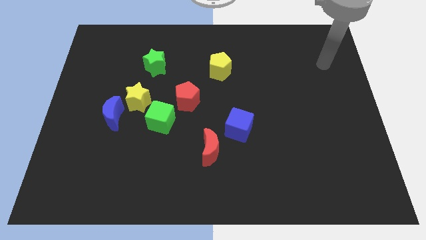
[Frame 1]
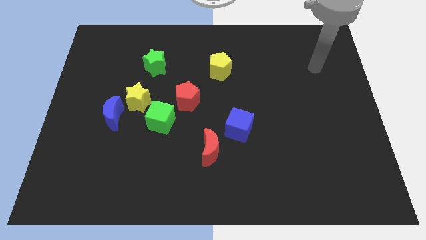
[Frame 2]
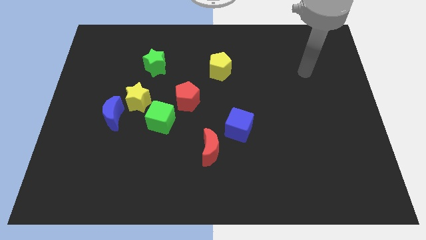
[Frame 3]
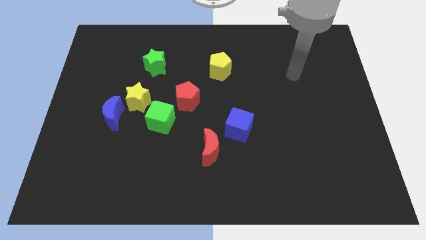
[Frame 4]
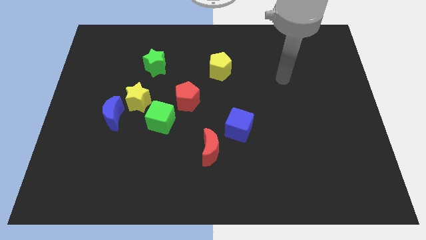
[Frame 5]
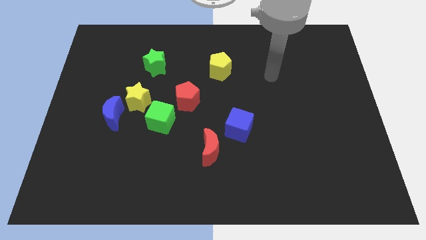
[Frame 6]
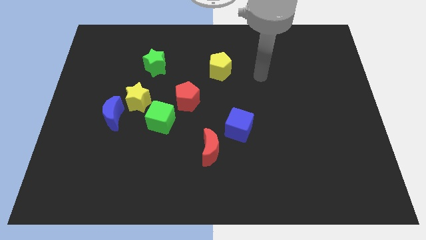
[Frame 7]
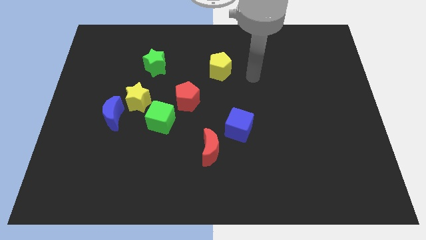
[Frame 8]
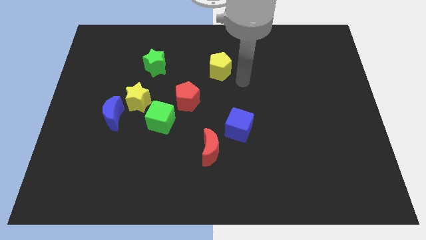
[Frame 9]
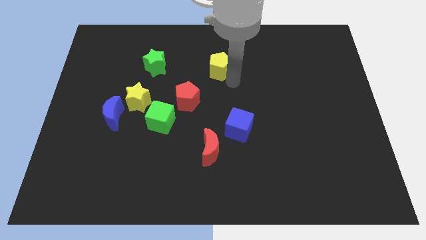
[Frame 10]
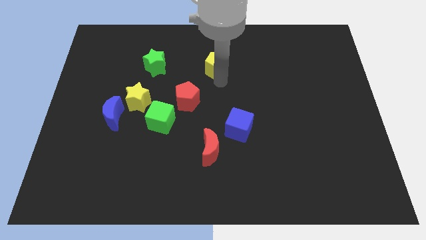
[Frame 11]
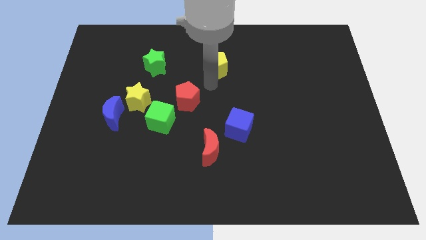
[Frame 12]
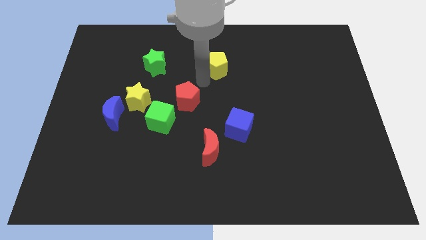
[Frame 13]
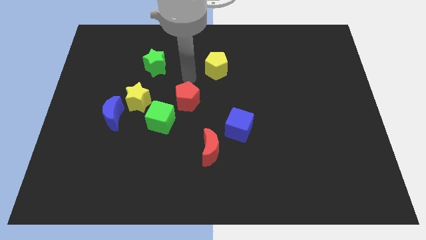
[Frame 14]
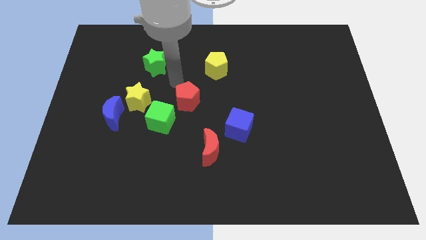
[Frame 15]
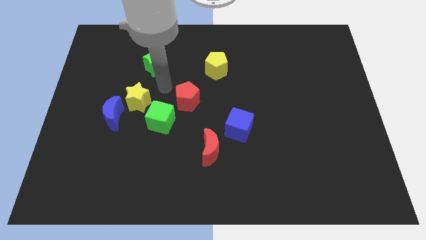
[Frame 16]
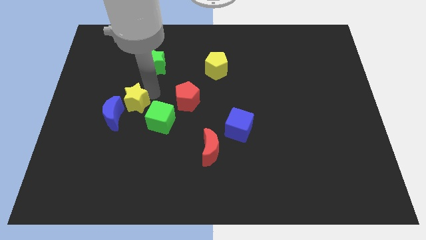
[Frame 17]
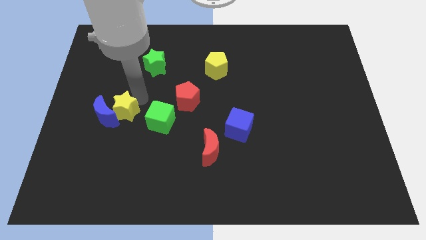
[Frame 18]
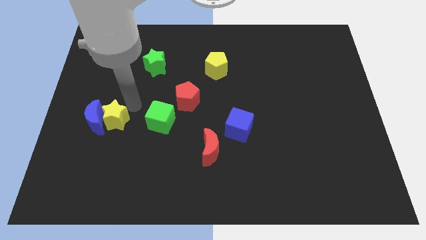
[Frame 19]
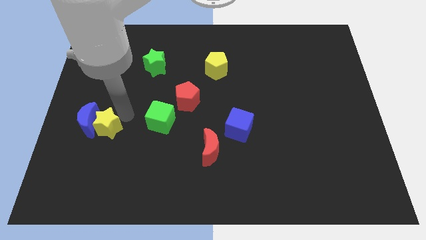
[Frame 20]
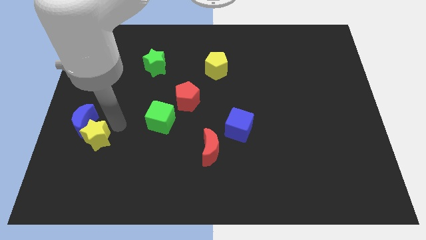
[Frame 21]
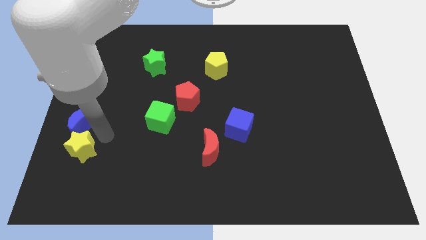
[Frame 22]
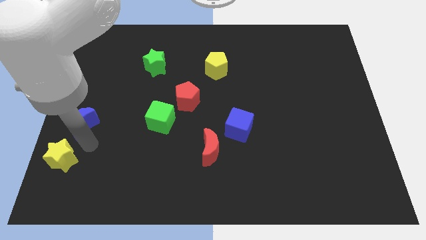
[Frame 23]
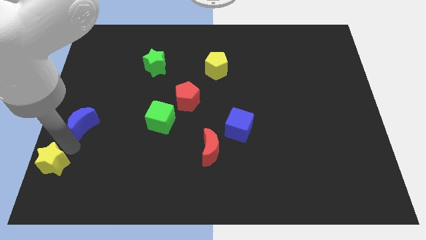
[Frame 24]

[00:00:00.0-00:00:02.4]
pull the blue moon apart from the yellow star

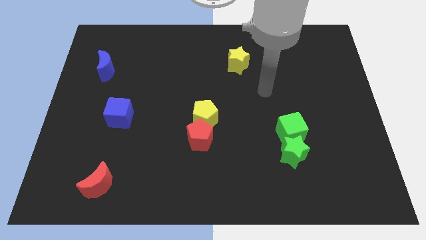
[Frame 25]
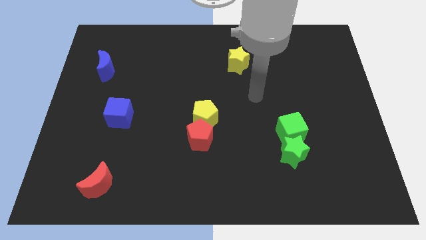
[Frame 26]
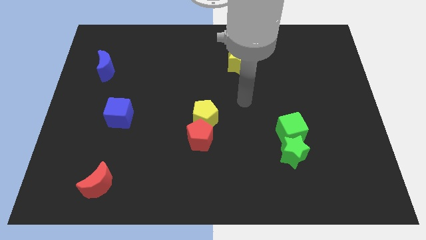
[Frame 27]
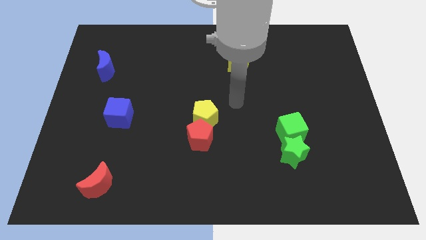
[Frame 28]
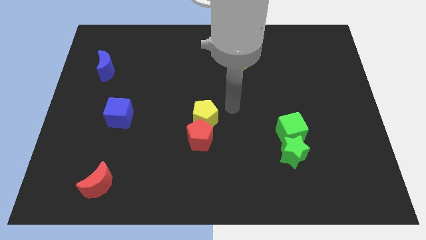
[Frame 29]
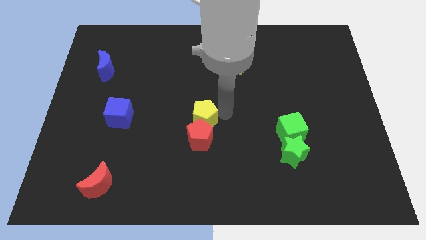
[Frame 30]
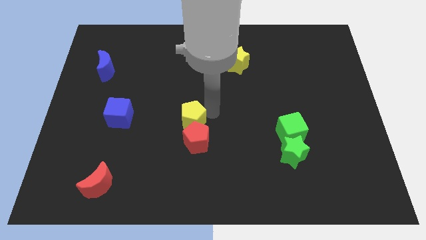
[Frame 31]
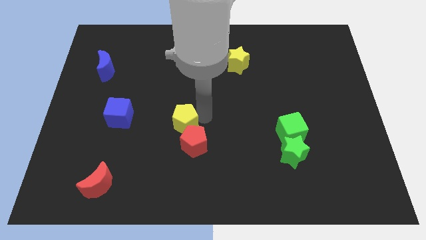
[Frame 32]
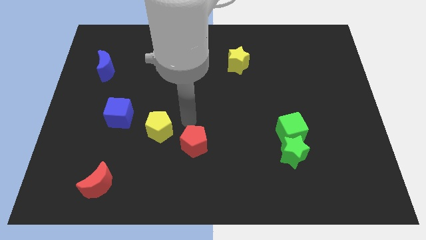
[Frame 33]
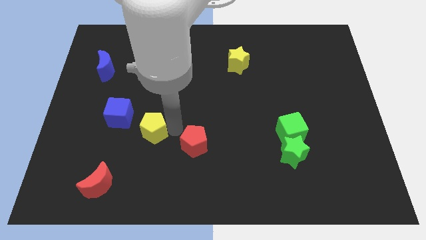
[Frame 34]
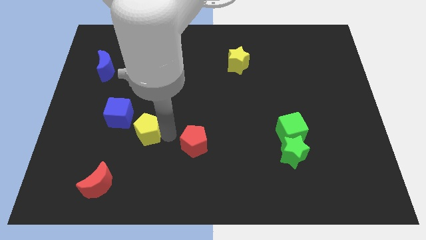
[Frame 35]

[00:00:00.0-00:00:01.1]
move the red pentagon away from the yellow pentagon

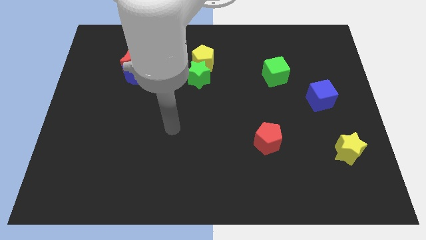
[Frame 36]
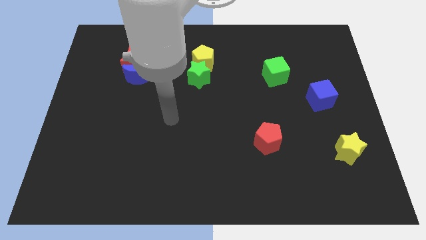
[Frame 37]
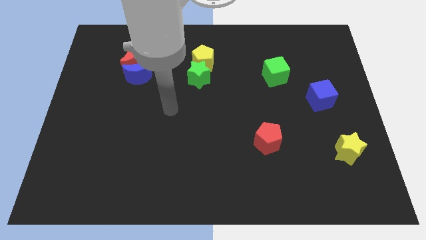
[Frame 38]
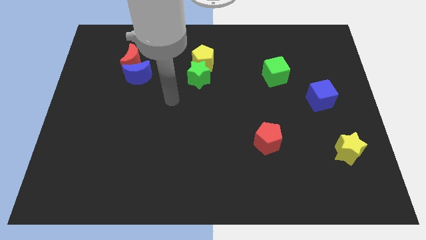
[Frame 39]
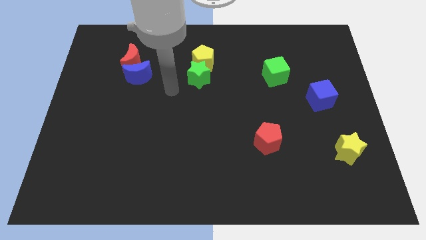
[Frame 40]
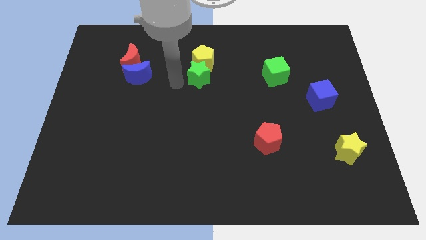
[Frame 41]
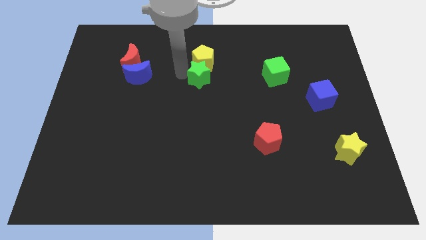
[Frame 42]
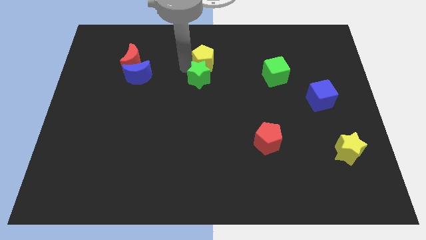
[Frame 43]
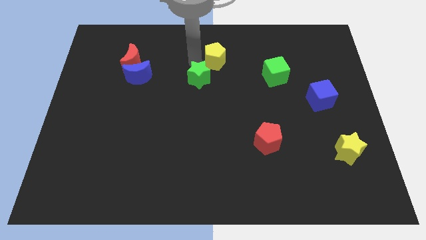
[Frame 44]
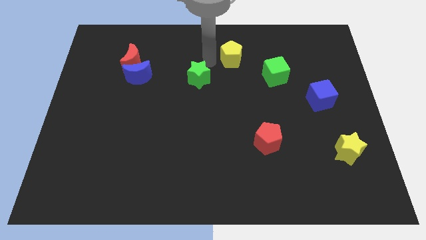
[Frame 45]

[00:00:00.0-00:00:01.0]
pull the green star apart from the yellow pentagon

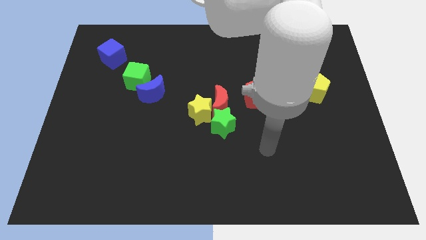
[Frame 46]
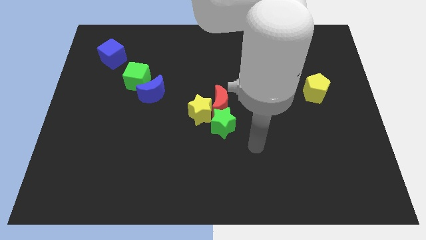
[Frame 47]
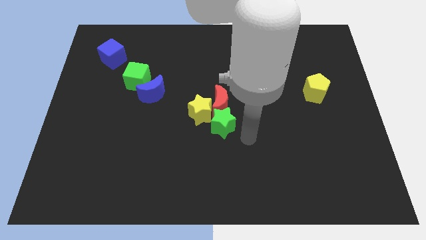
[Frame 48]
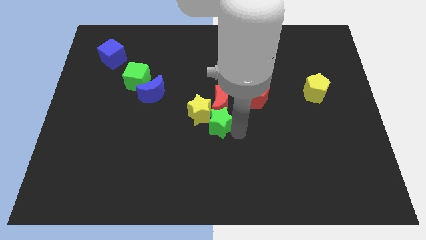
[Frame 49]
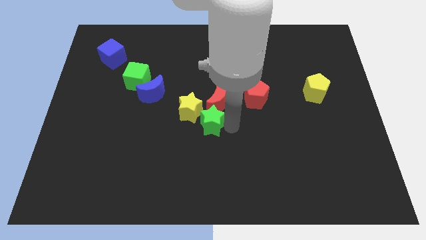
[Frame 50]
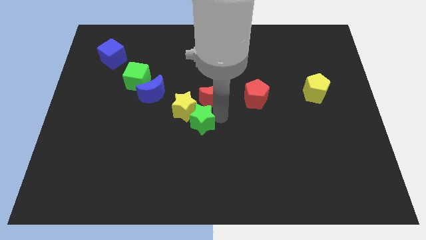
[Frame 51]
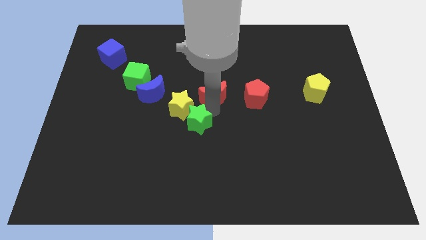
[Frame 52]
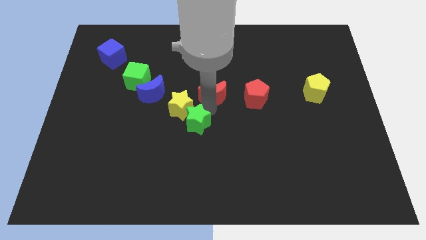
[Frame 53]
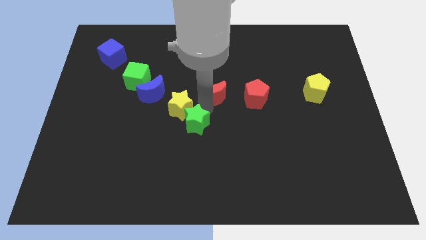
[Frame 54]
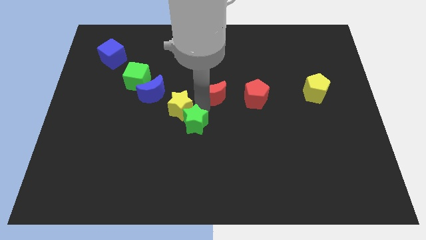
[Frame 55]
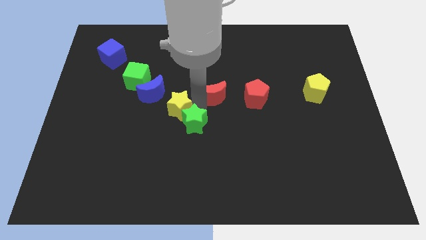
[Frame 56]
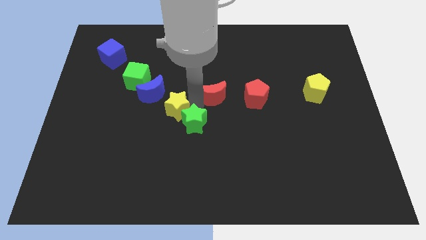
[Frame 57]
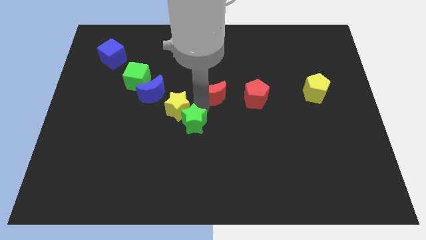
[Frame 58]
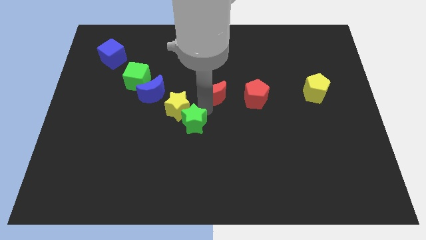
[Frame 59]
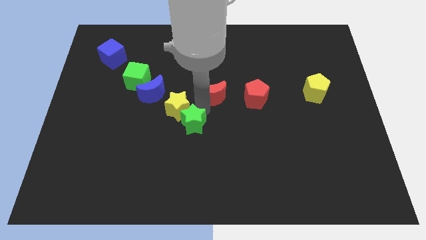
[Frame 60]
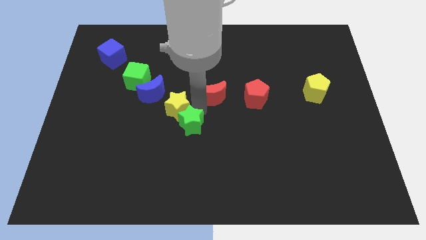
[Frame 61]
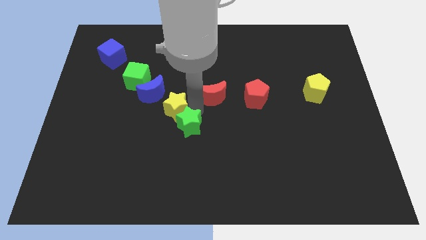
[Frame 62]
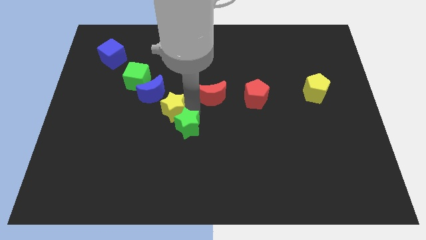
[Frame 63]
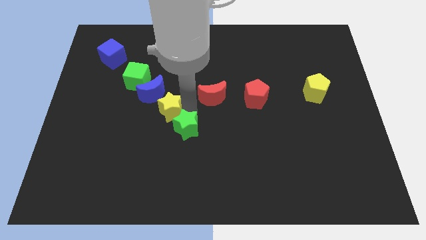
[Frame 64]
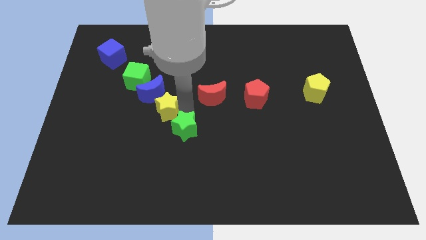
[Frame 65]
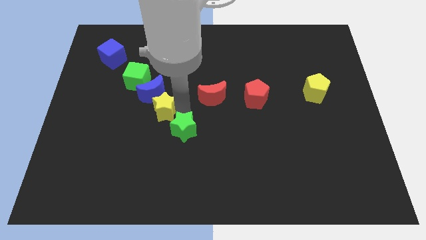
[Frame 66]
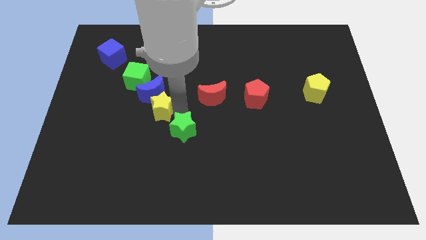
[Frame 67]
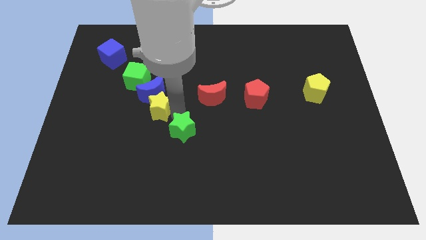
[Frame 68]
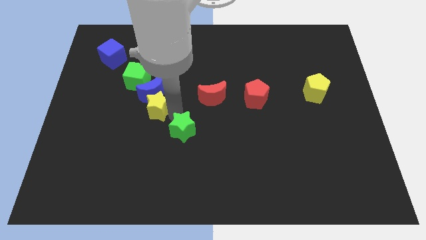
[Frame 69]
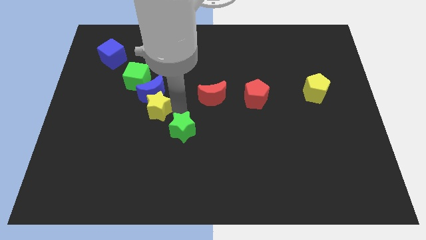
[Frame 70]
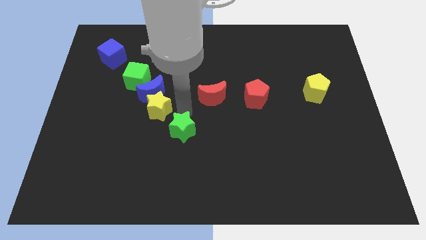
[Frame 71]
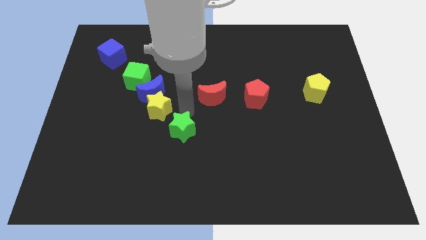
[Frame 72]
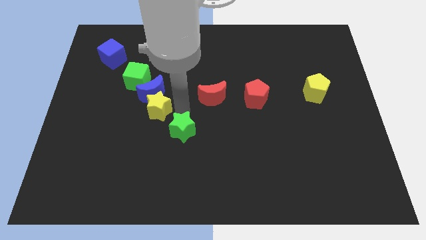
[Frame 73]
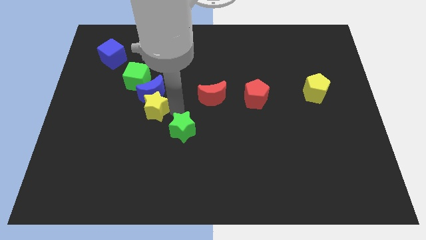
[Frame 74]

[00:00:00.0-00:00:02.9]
pull the yellow star apart from the red moon and green star

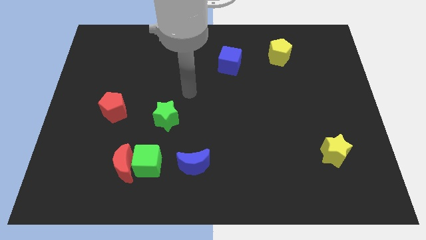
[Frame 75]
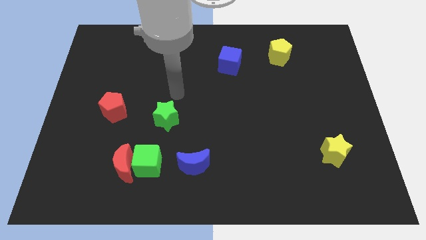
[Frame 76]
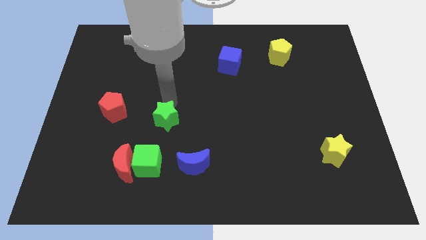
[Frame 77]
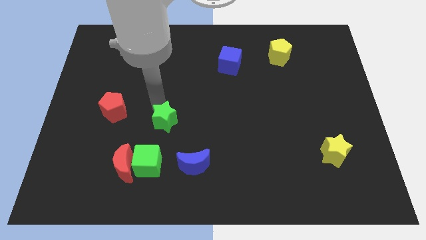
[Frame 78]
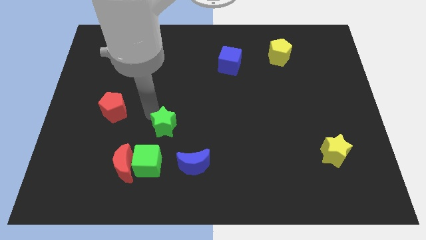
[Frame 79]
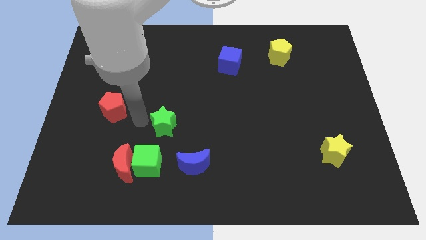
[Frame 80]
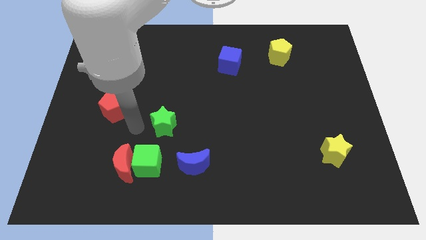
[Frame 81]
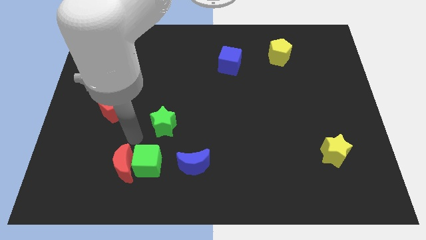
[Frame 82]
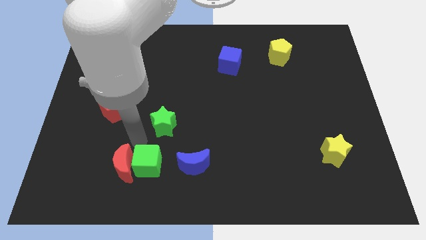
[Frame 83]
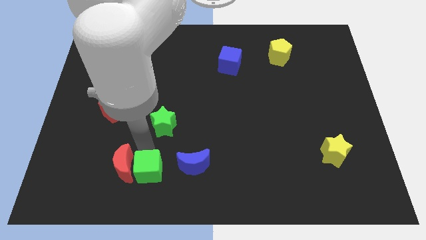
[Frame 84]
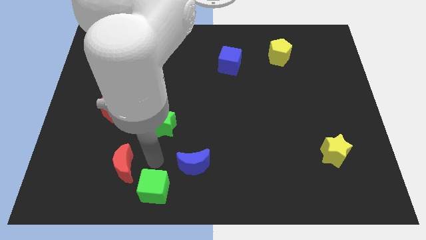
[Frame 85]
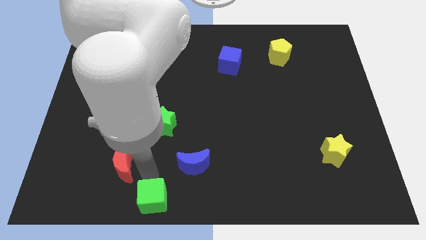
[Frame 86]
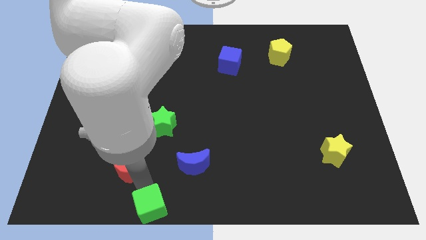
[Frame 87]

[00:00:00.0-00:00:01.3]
move the red moon away from the green cube

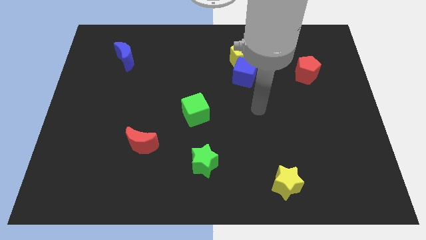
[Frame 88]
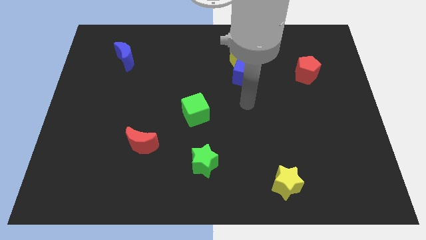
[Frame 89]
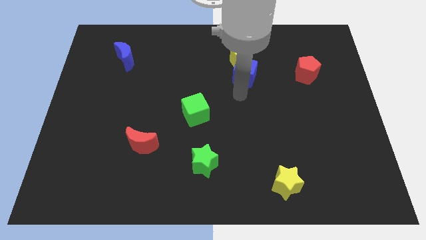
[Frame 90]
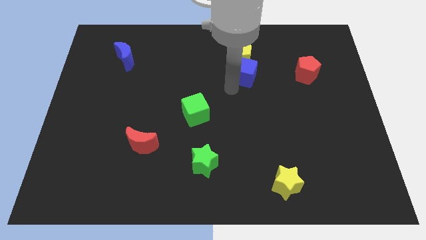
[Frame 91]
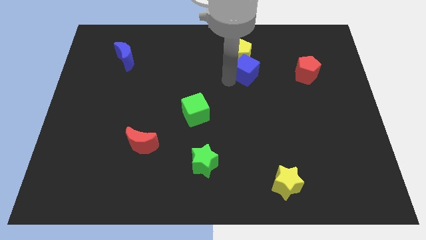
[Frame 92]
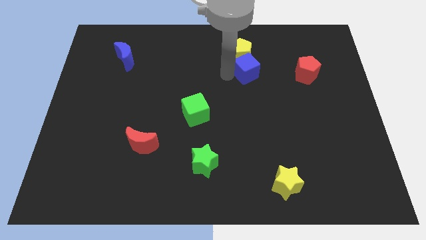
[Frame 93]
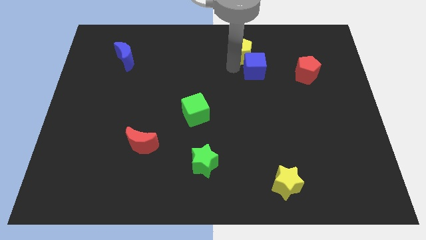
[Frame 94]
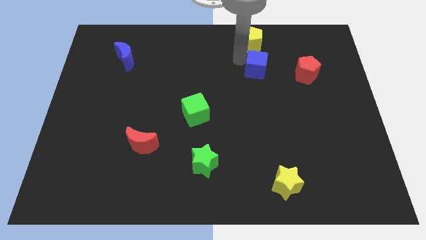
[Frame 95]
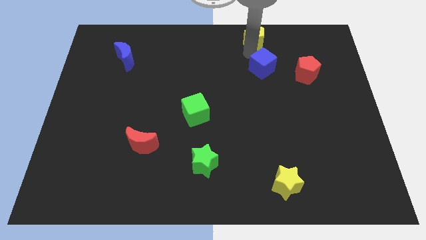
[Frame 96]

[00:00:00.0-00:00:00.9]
pull the blue cube apart from the yellow pentagon
